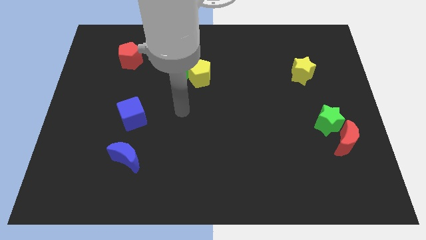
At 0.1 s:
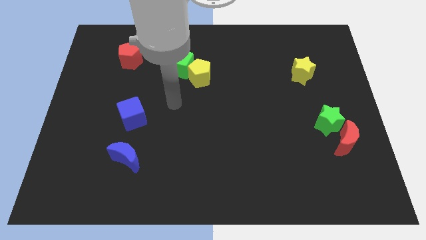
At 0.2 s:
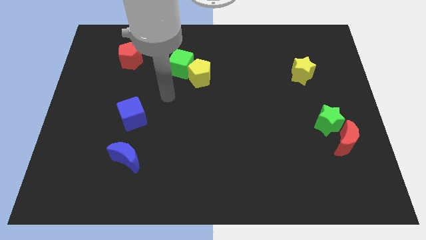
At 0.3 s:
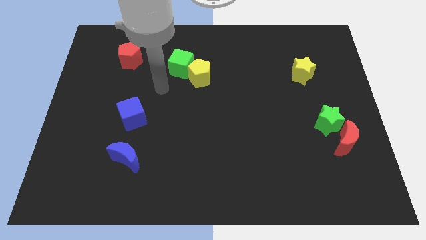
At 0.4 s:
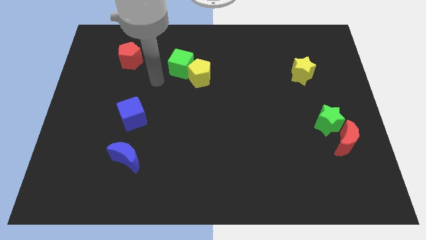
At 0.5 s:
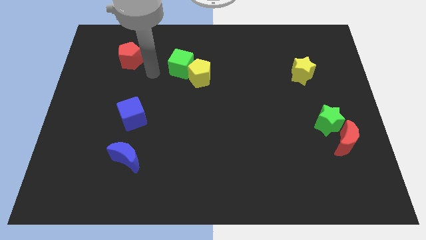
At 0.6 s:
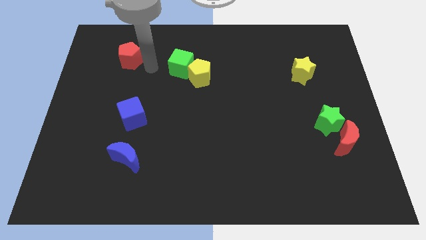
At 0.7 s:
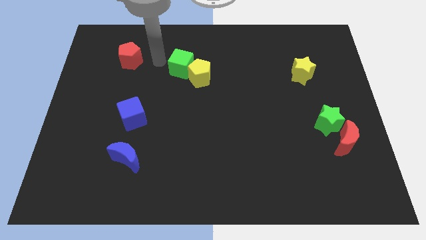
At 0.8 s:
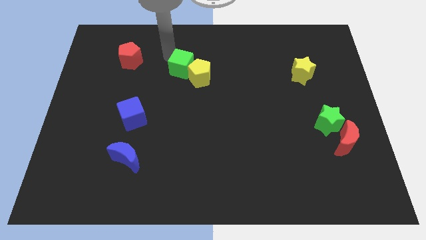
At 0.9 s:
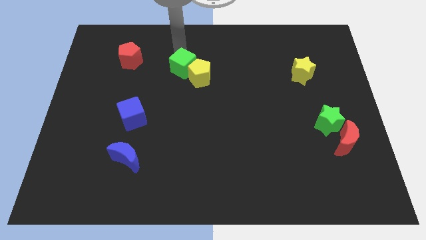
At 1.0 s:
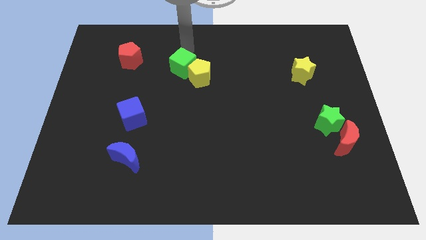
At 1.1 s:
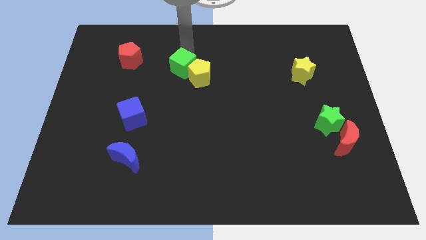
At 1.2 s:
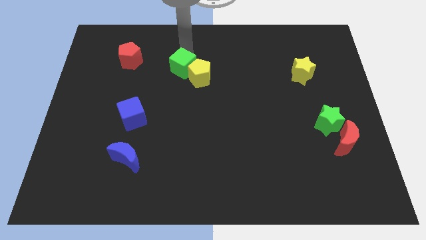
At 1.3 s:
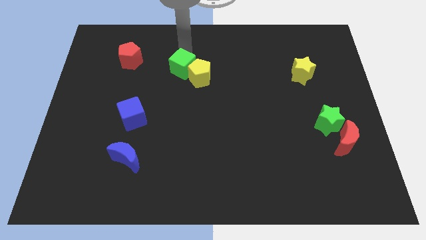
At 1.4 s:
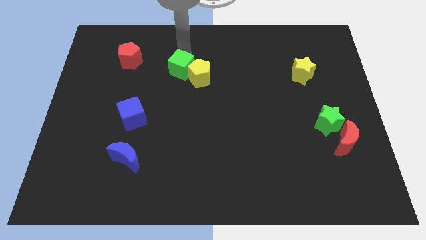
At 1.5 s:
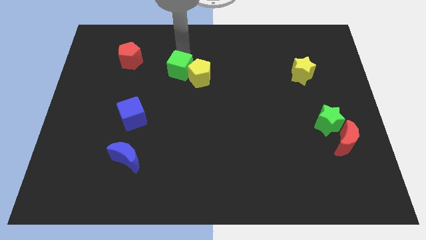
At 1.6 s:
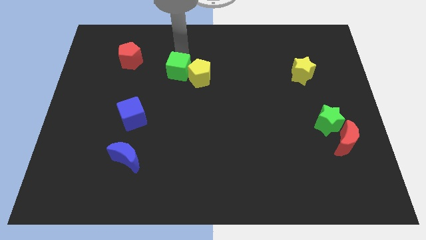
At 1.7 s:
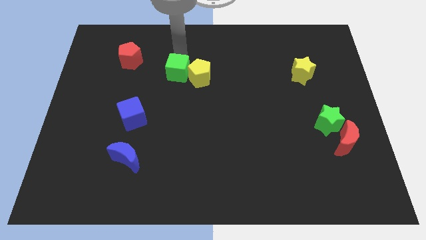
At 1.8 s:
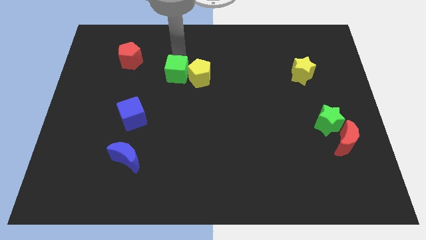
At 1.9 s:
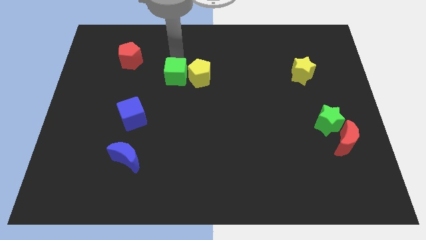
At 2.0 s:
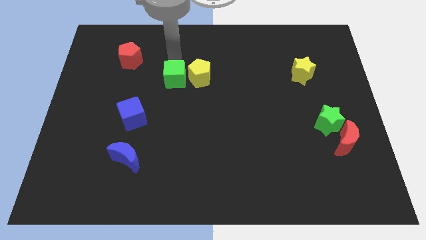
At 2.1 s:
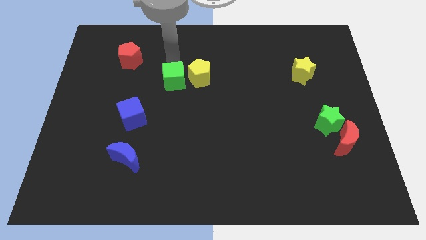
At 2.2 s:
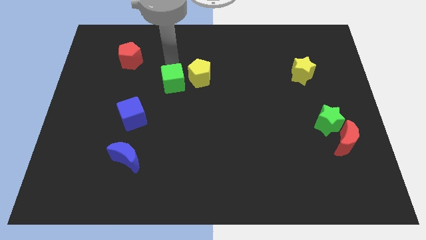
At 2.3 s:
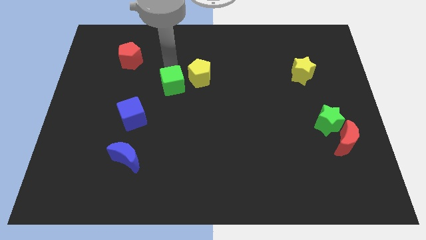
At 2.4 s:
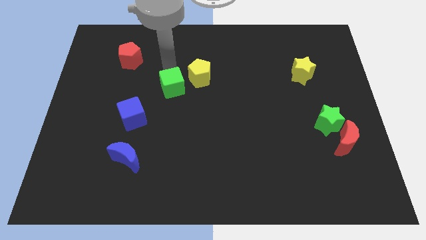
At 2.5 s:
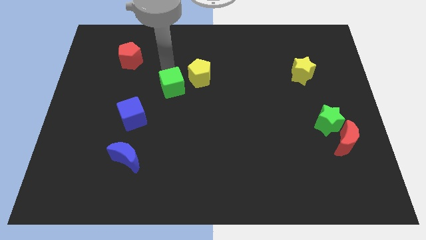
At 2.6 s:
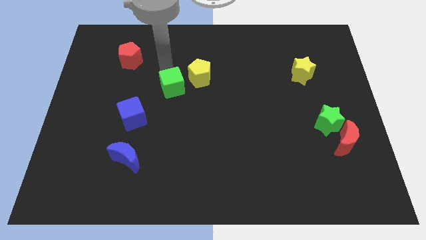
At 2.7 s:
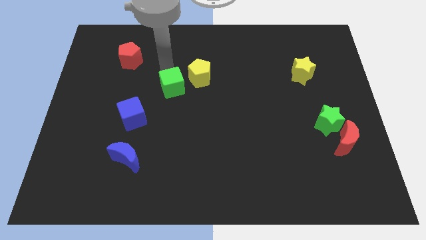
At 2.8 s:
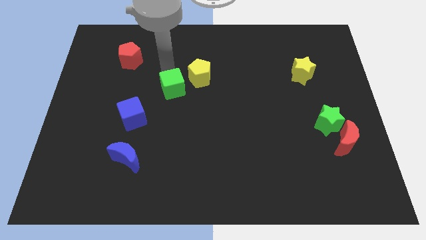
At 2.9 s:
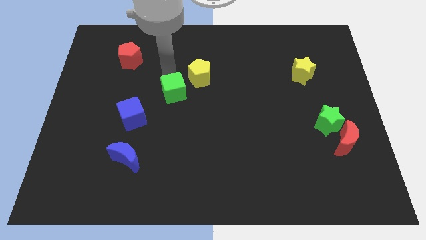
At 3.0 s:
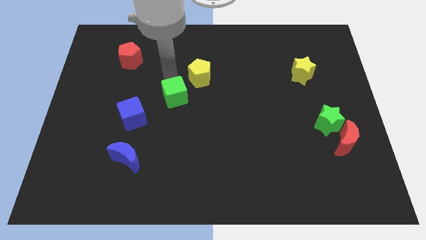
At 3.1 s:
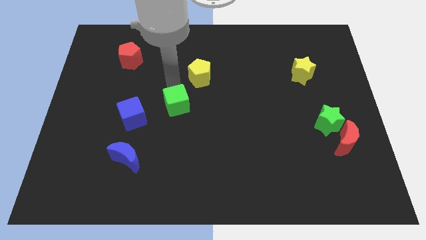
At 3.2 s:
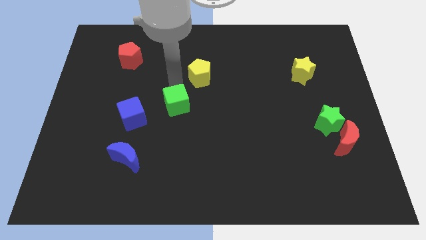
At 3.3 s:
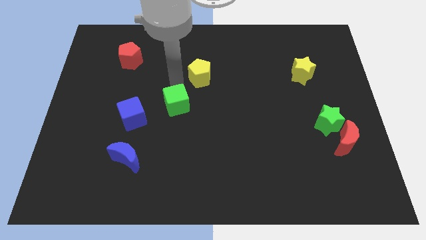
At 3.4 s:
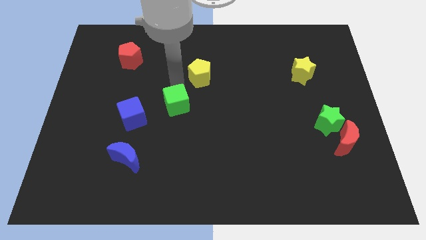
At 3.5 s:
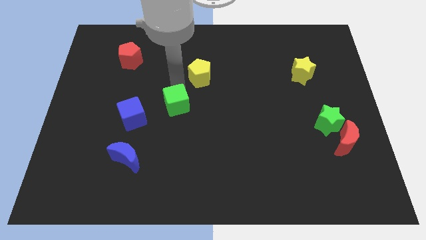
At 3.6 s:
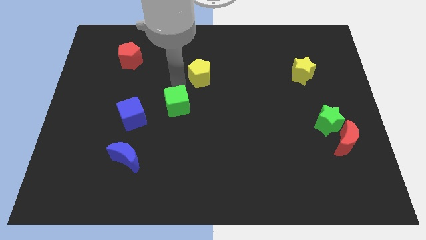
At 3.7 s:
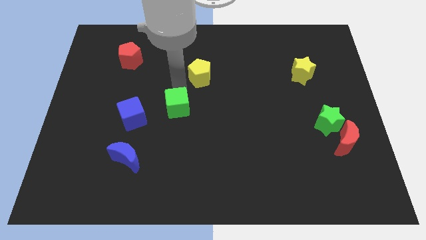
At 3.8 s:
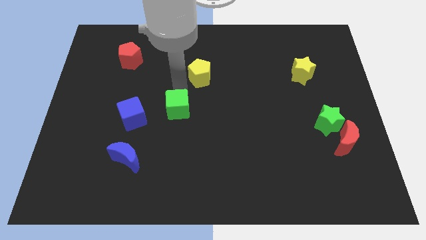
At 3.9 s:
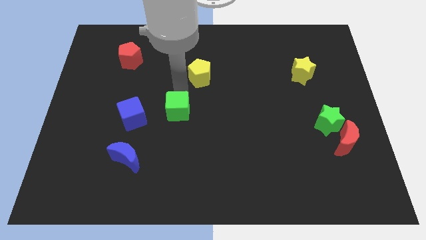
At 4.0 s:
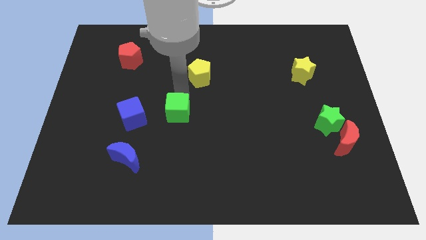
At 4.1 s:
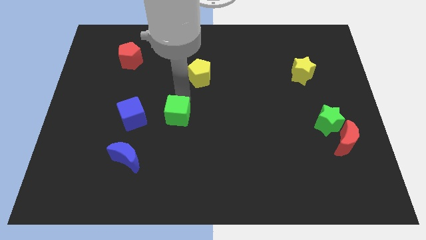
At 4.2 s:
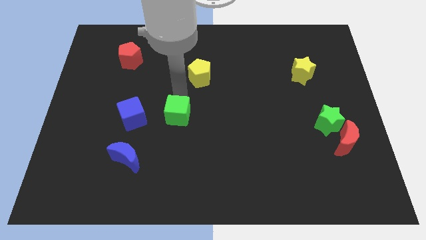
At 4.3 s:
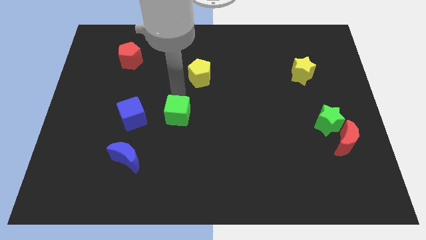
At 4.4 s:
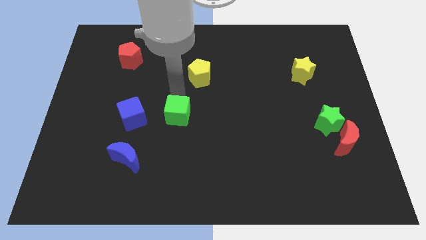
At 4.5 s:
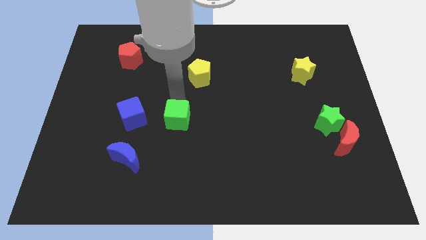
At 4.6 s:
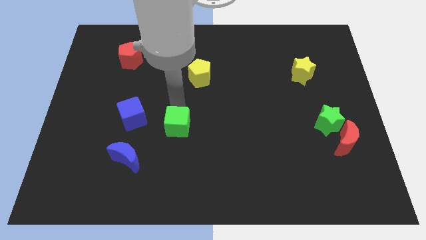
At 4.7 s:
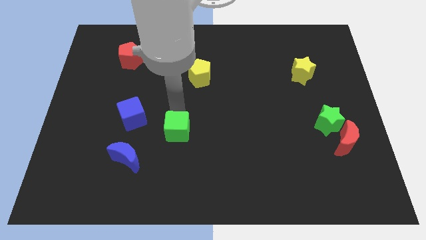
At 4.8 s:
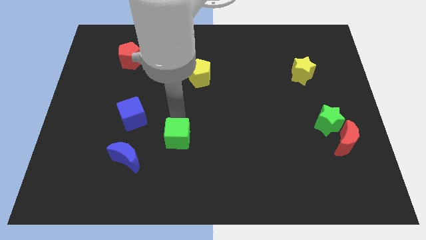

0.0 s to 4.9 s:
slide the green cube downwards

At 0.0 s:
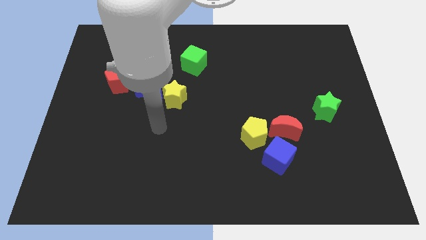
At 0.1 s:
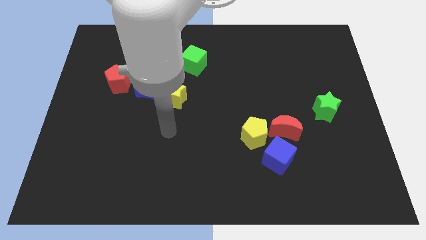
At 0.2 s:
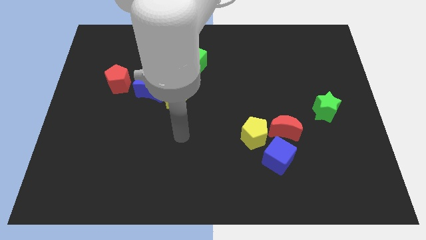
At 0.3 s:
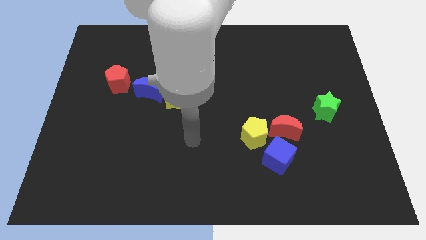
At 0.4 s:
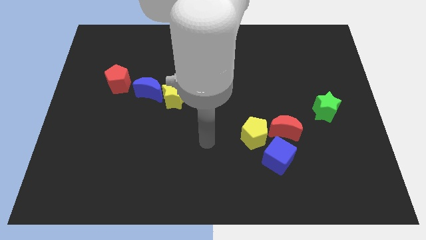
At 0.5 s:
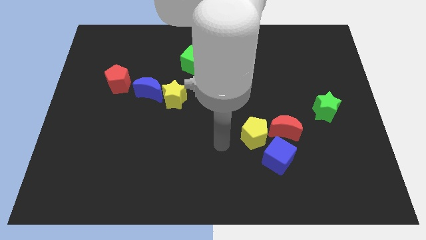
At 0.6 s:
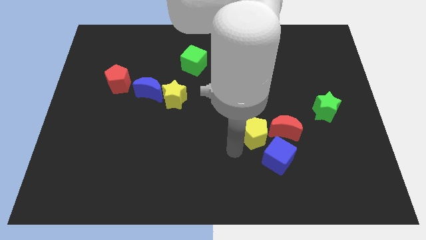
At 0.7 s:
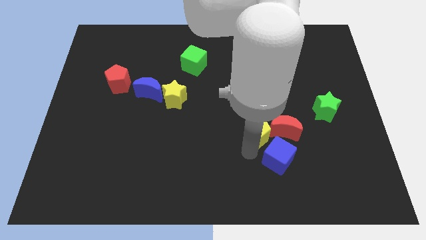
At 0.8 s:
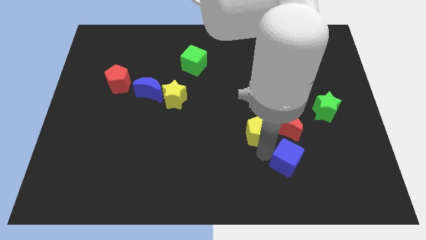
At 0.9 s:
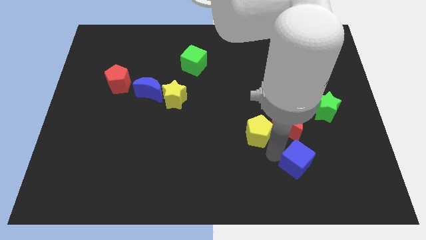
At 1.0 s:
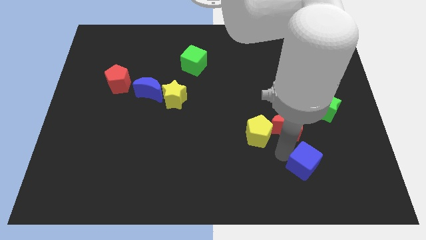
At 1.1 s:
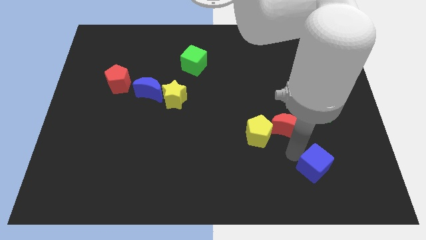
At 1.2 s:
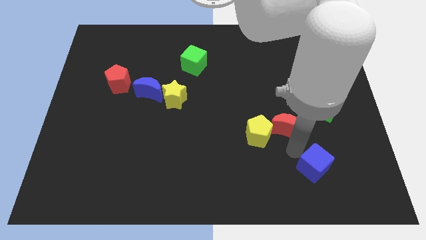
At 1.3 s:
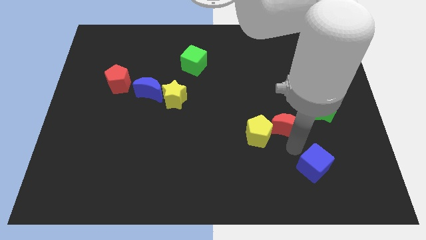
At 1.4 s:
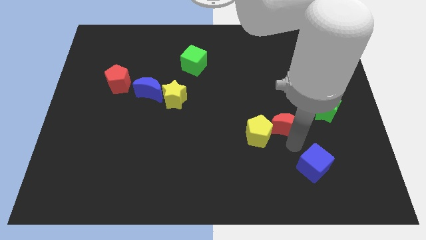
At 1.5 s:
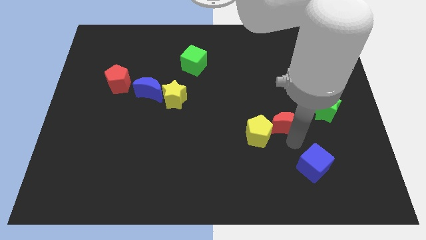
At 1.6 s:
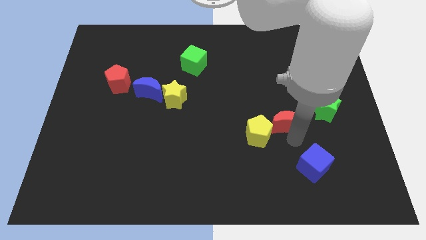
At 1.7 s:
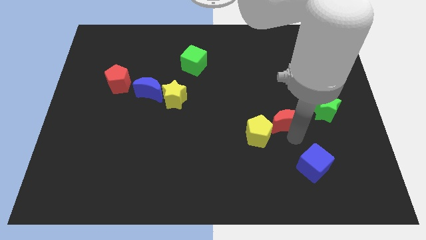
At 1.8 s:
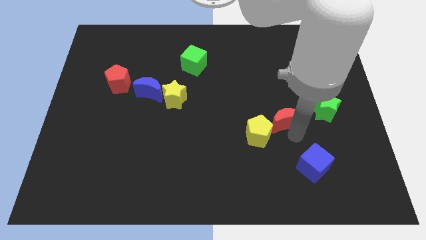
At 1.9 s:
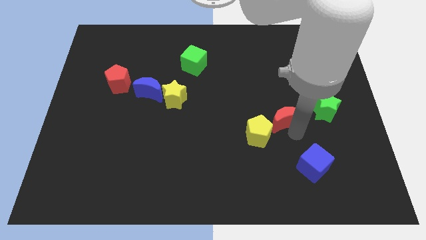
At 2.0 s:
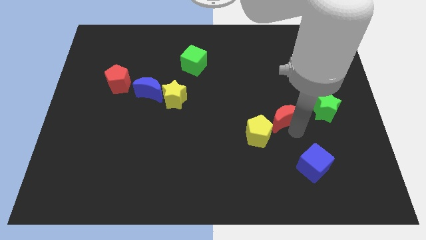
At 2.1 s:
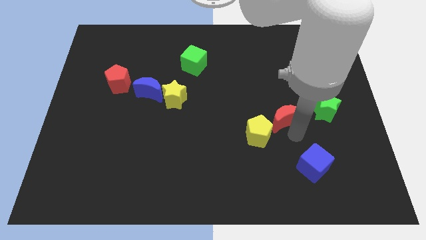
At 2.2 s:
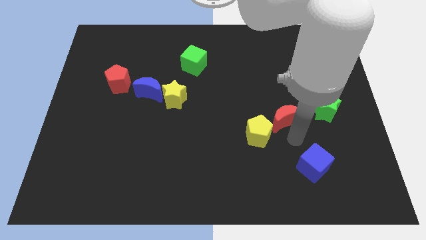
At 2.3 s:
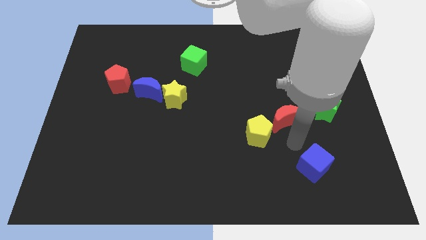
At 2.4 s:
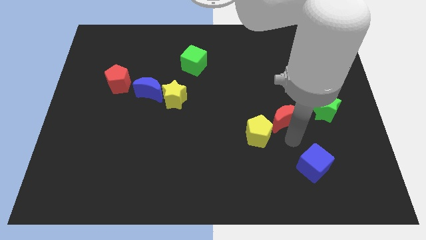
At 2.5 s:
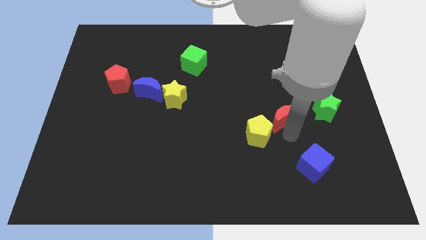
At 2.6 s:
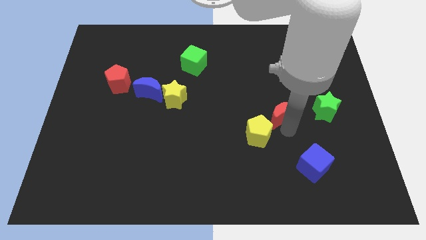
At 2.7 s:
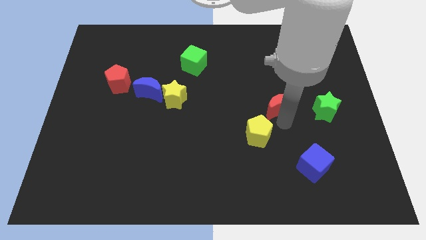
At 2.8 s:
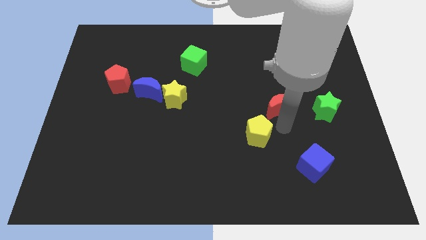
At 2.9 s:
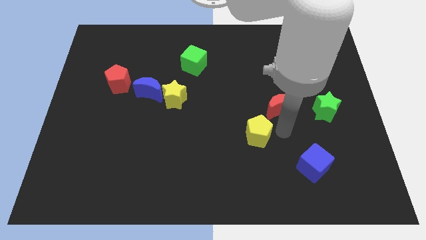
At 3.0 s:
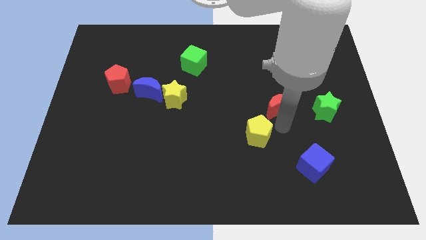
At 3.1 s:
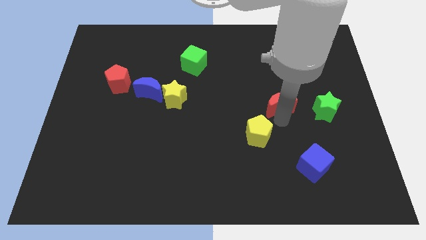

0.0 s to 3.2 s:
slightly move the red moon up

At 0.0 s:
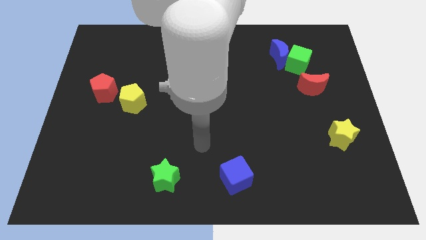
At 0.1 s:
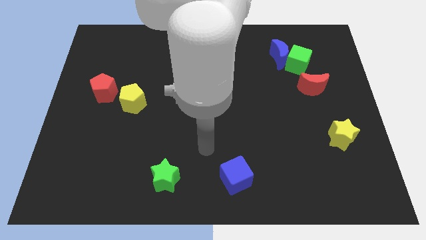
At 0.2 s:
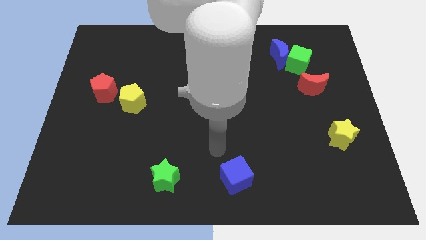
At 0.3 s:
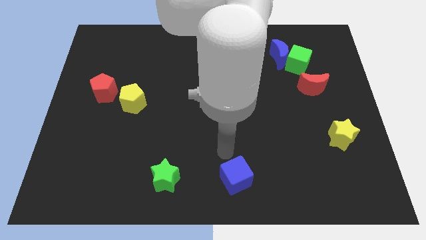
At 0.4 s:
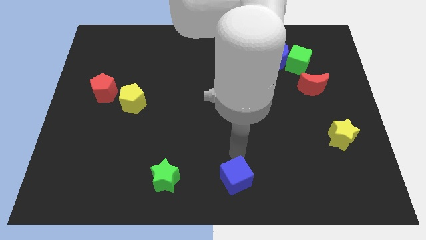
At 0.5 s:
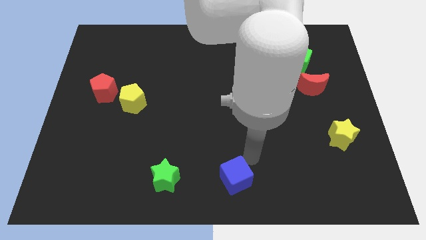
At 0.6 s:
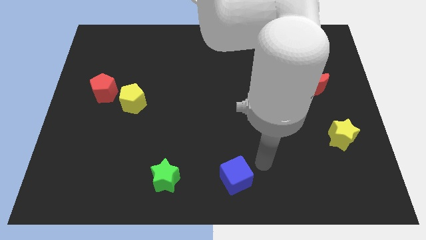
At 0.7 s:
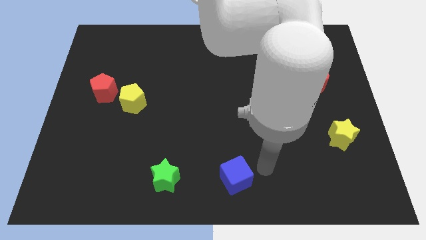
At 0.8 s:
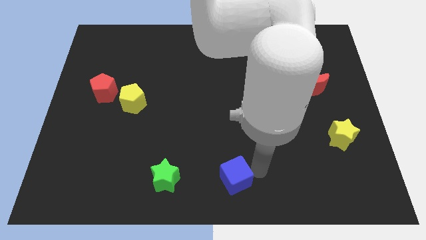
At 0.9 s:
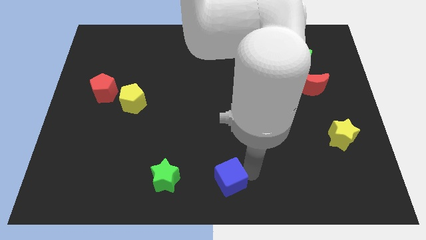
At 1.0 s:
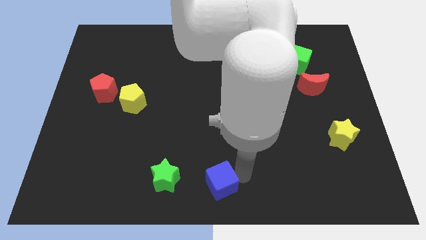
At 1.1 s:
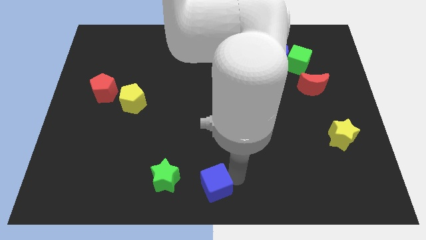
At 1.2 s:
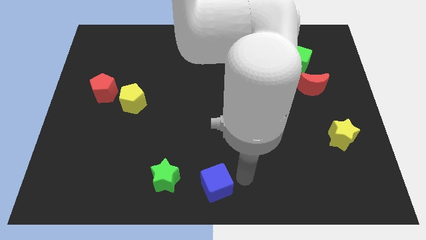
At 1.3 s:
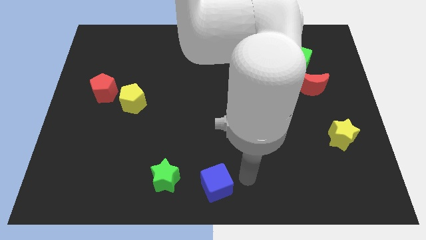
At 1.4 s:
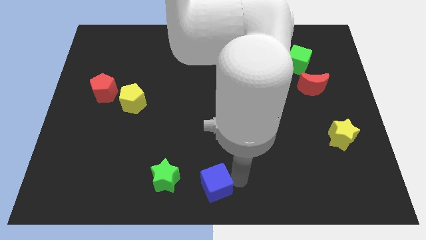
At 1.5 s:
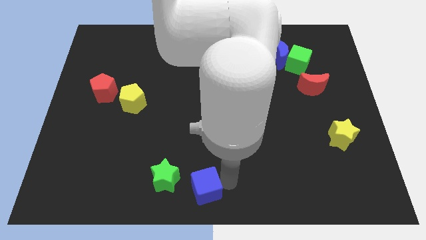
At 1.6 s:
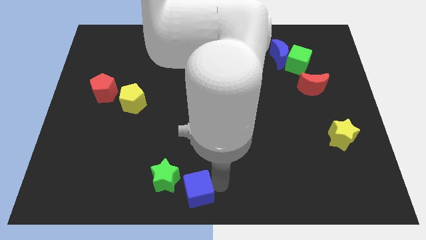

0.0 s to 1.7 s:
push the blue cube a little left
